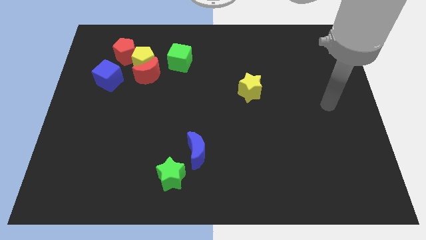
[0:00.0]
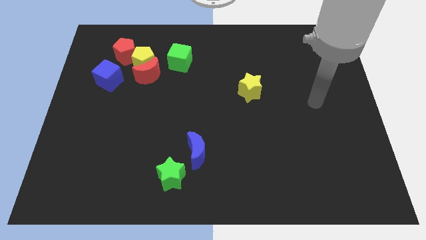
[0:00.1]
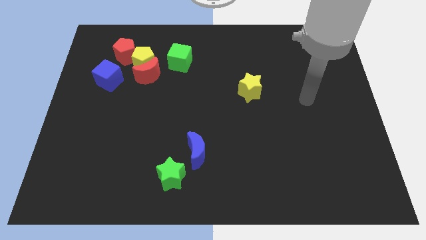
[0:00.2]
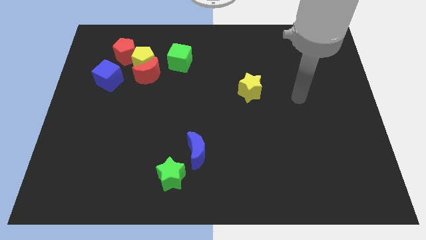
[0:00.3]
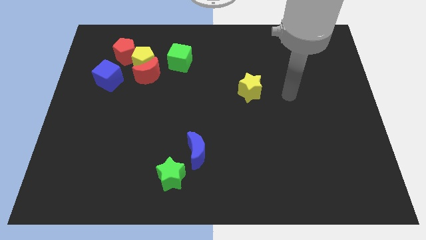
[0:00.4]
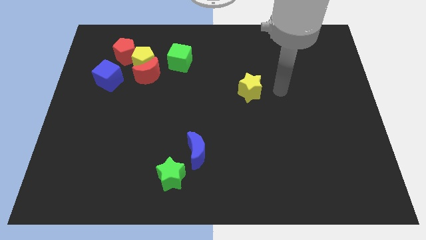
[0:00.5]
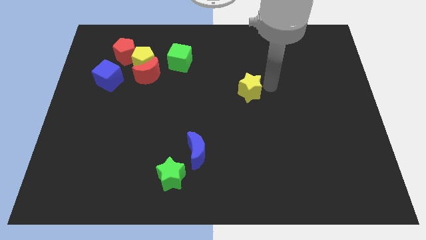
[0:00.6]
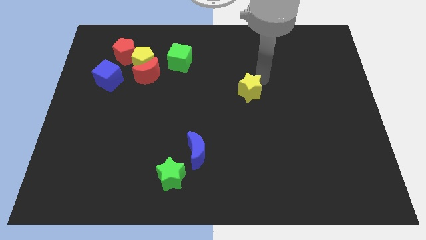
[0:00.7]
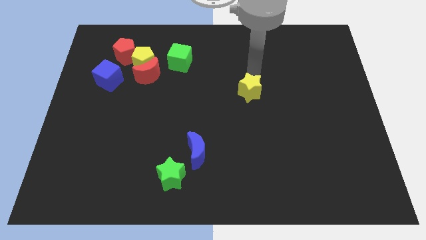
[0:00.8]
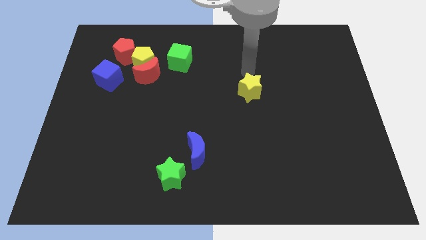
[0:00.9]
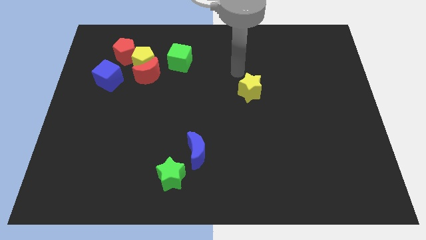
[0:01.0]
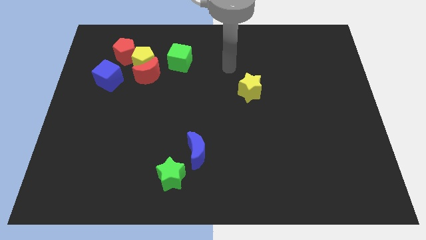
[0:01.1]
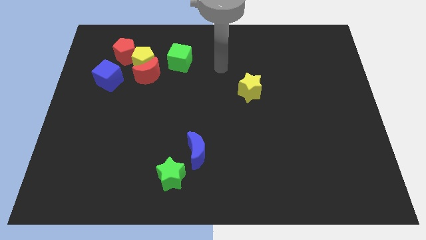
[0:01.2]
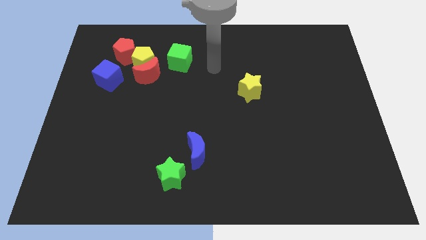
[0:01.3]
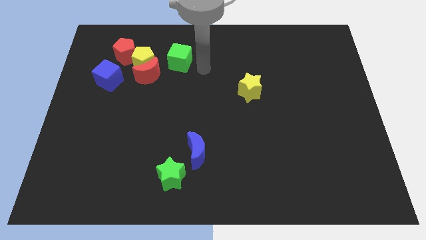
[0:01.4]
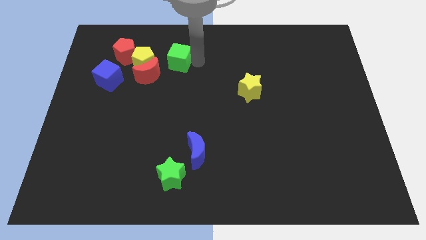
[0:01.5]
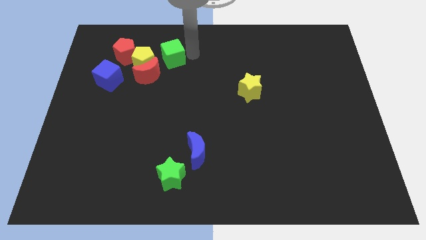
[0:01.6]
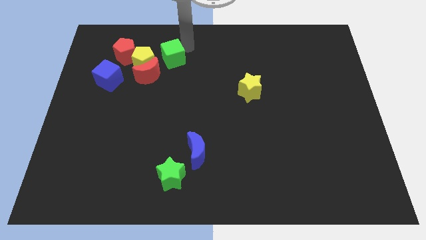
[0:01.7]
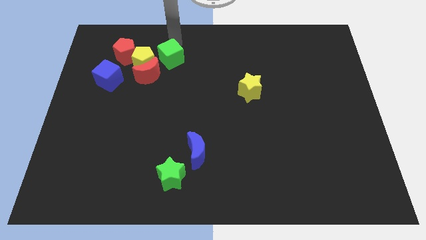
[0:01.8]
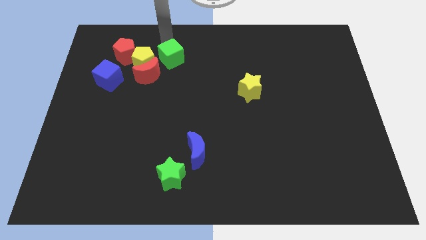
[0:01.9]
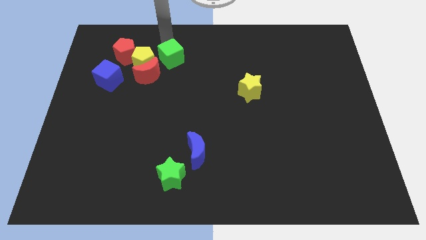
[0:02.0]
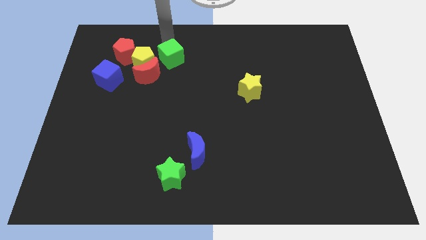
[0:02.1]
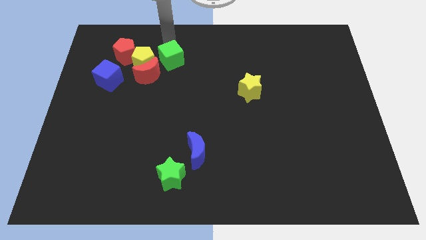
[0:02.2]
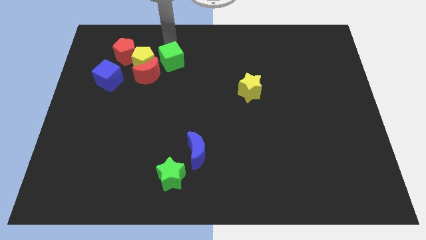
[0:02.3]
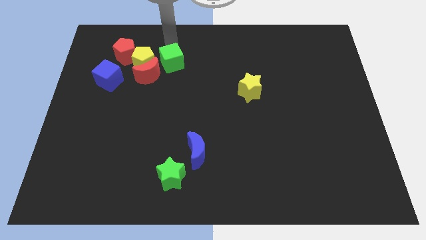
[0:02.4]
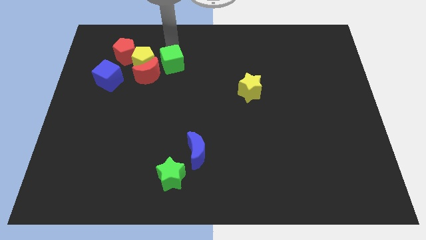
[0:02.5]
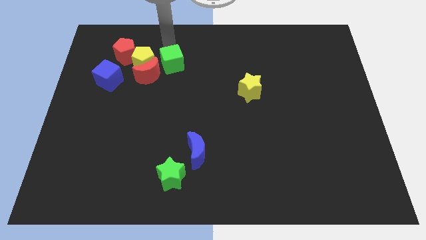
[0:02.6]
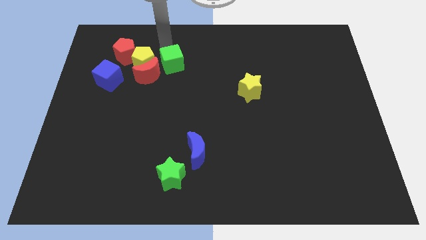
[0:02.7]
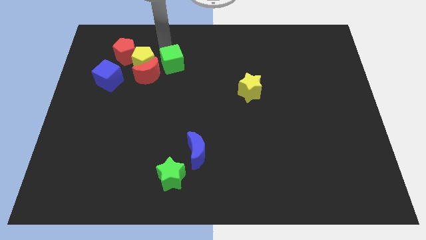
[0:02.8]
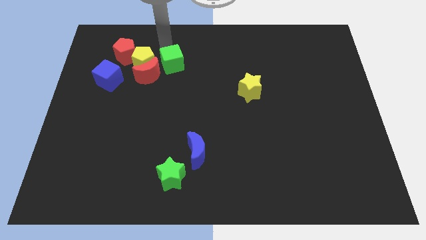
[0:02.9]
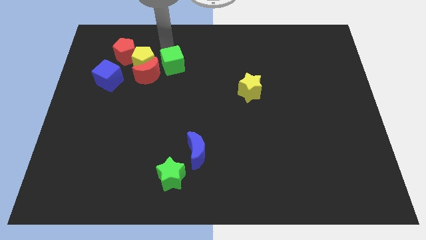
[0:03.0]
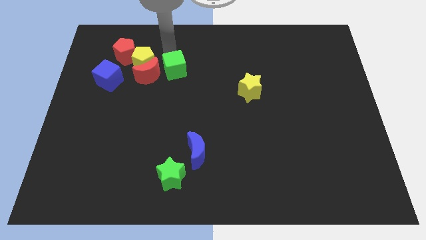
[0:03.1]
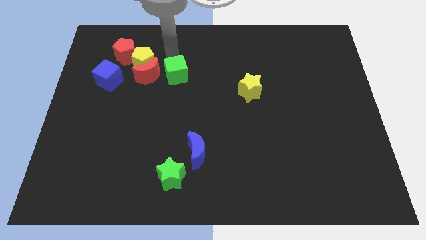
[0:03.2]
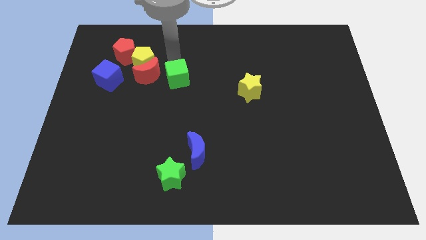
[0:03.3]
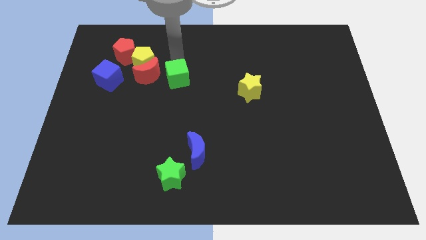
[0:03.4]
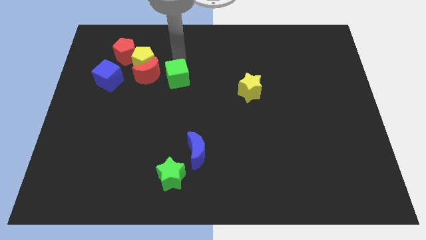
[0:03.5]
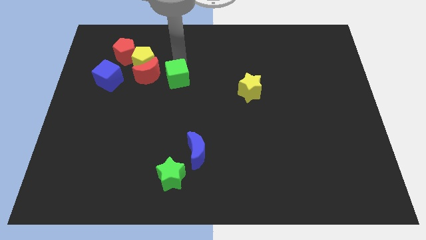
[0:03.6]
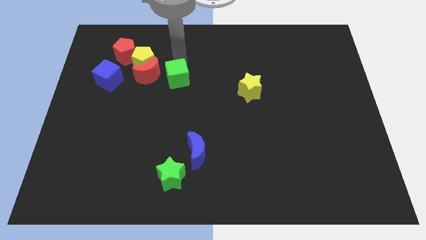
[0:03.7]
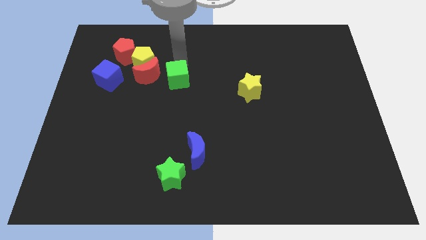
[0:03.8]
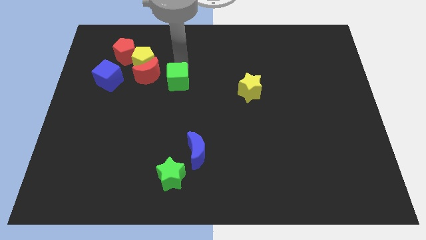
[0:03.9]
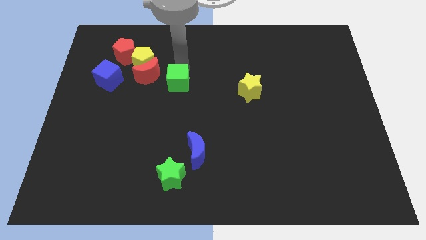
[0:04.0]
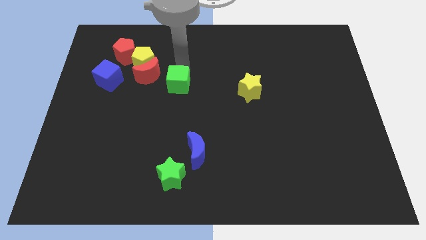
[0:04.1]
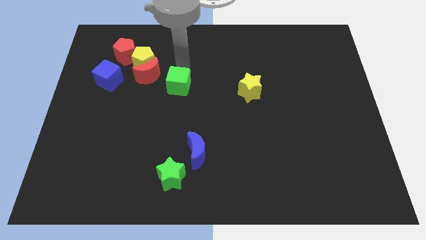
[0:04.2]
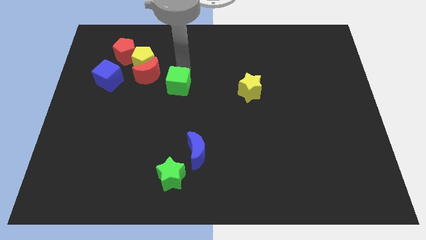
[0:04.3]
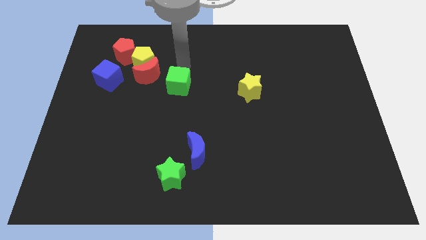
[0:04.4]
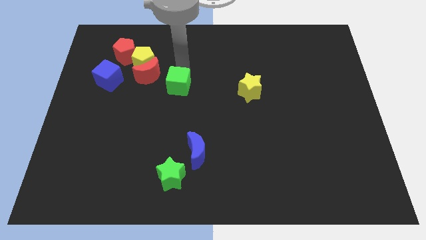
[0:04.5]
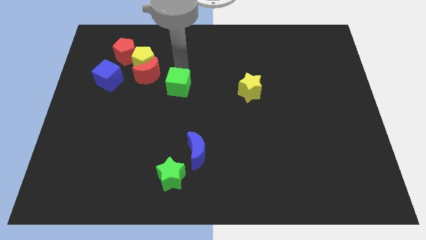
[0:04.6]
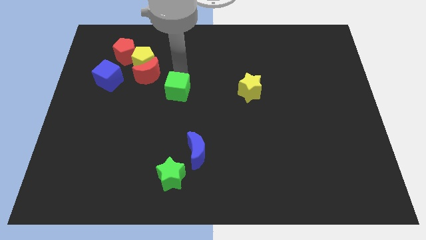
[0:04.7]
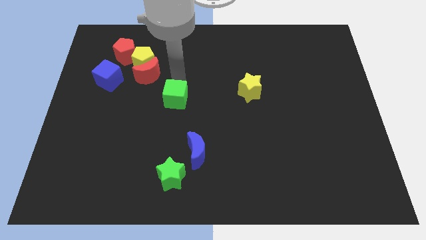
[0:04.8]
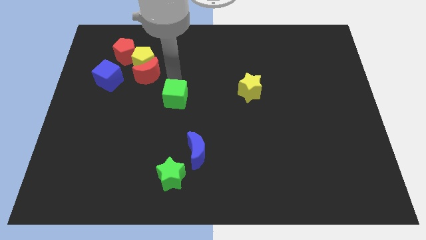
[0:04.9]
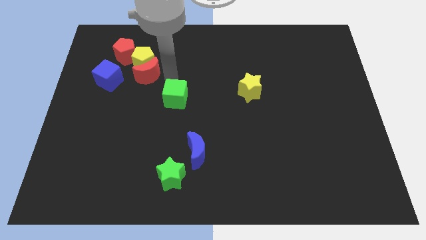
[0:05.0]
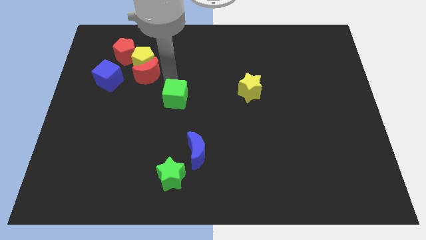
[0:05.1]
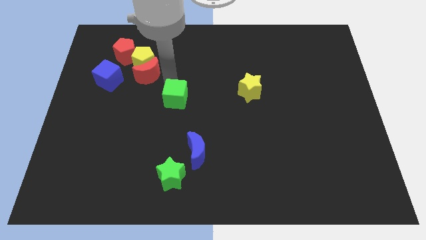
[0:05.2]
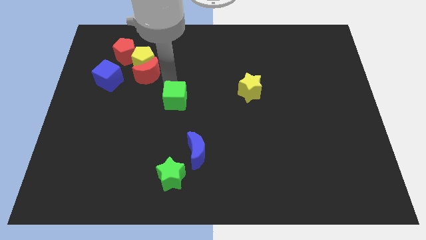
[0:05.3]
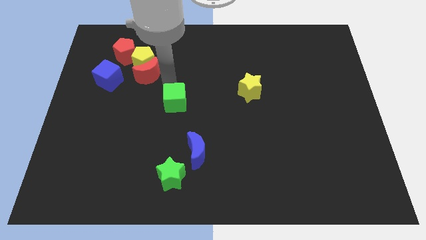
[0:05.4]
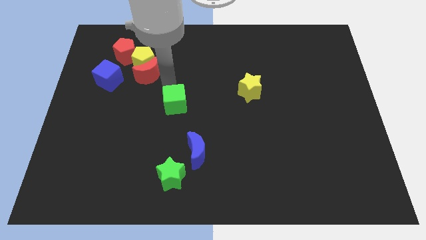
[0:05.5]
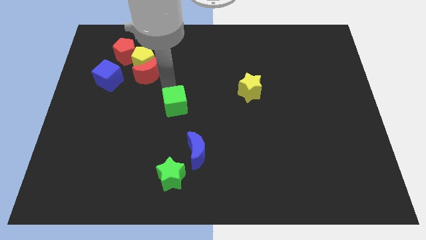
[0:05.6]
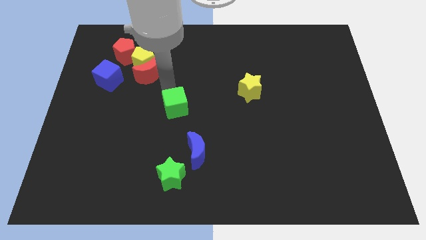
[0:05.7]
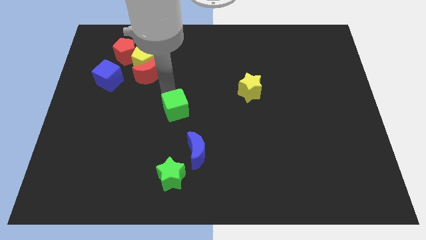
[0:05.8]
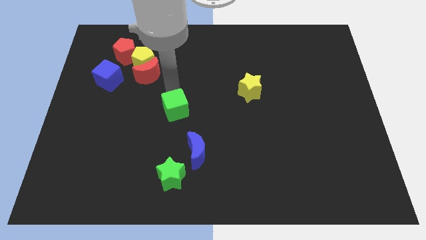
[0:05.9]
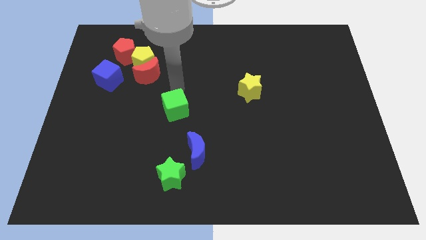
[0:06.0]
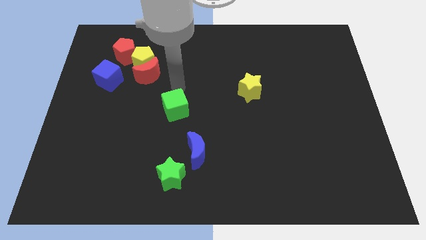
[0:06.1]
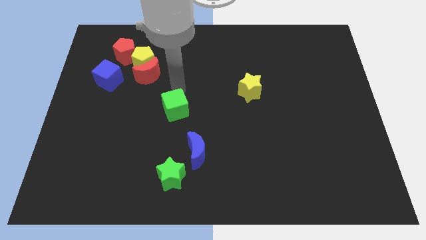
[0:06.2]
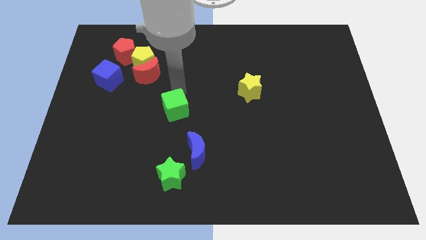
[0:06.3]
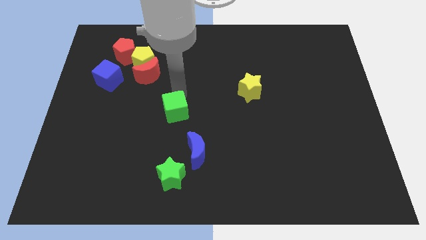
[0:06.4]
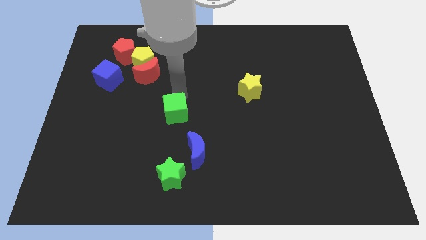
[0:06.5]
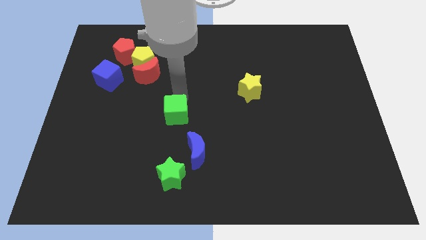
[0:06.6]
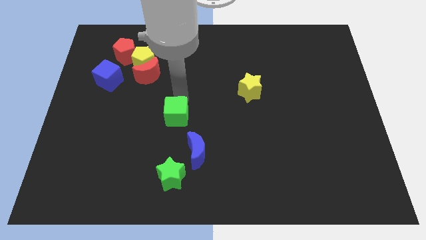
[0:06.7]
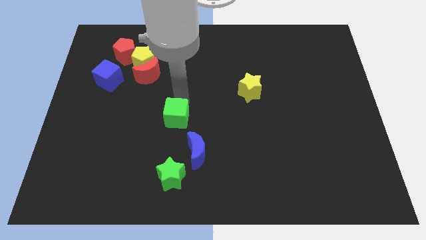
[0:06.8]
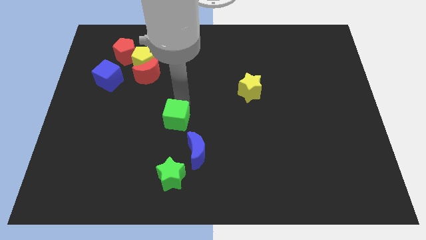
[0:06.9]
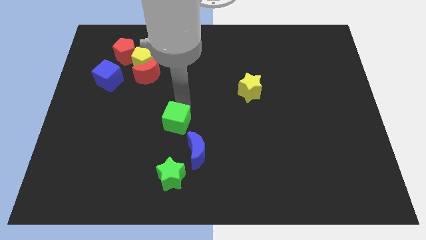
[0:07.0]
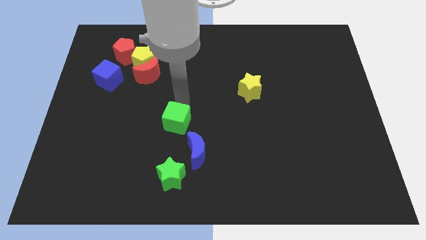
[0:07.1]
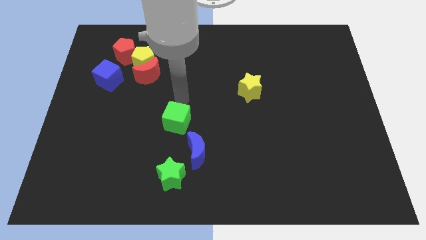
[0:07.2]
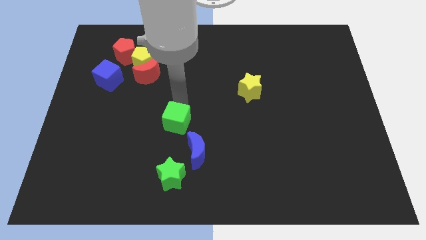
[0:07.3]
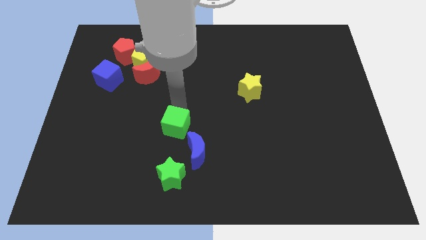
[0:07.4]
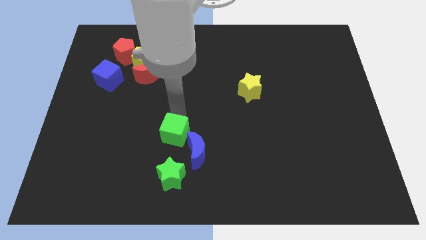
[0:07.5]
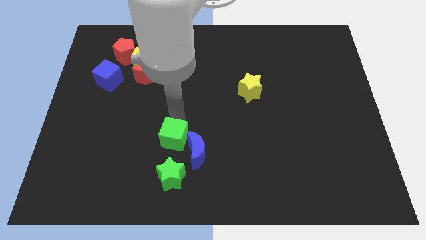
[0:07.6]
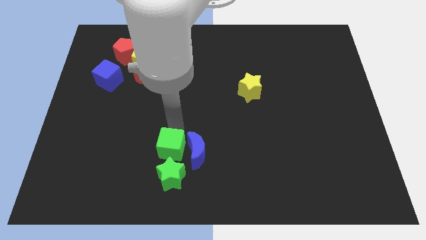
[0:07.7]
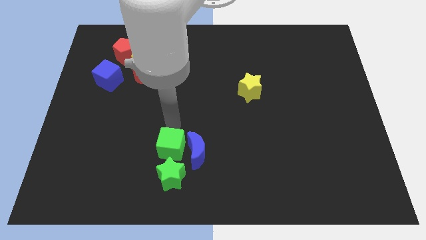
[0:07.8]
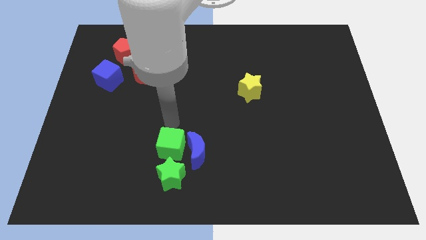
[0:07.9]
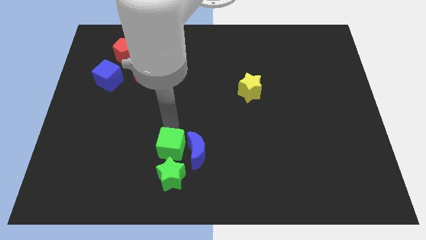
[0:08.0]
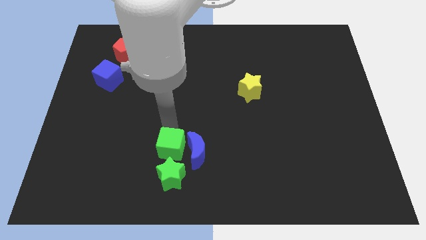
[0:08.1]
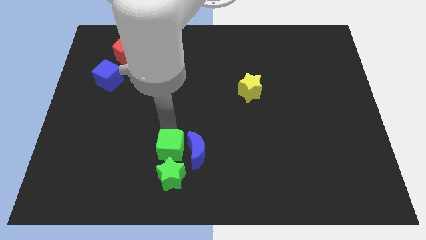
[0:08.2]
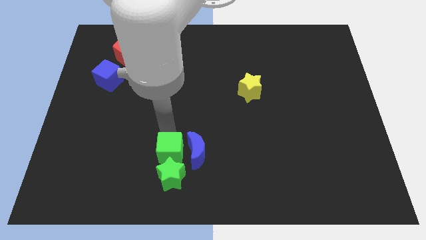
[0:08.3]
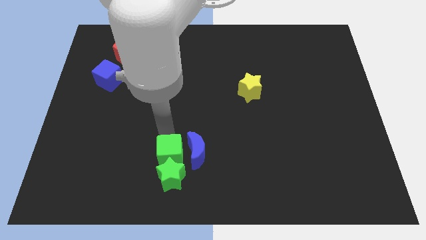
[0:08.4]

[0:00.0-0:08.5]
push the green cube towards the green star
